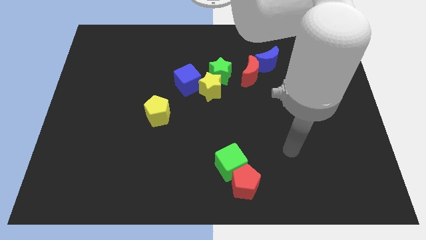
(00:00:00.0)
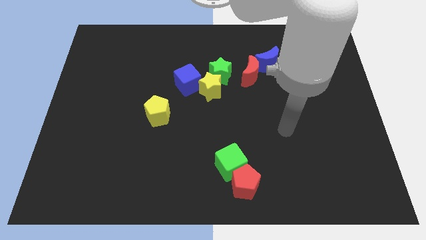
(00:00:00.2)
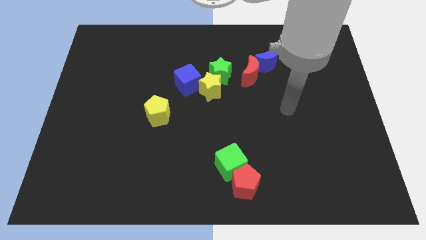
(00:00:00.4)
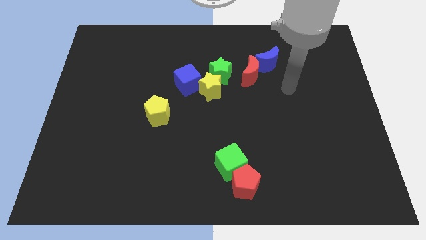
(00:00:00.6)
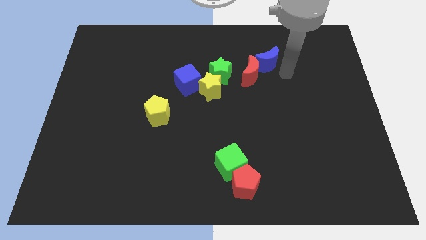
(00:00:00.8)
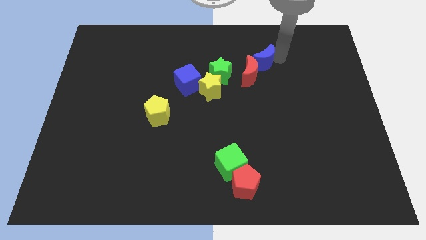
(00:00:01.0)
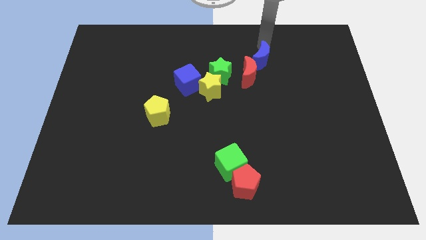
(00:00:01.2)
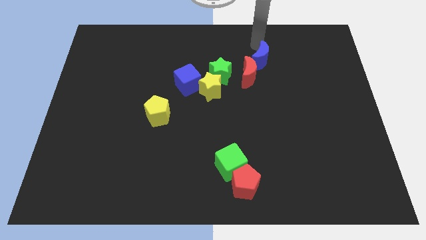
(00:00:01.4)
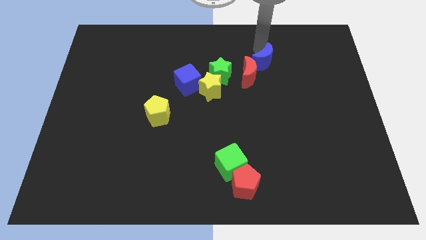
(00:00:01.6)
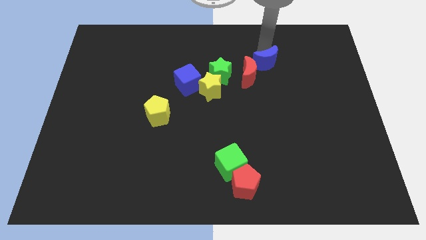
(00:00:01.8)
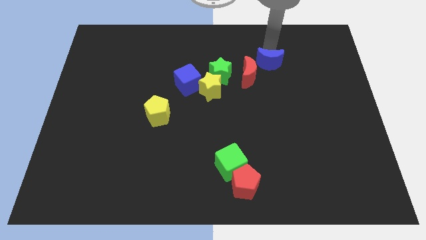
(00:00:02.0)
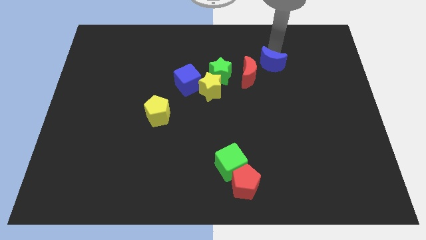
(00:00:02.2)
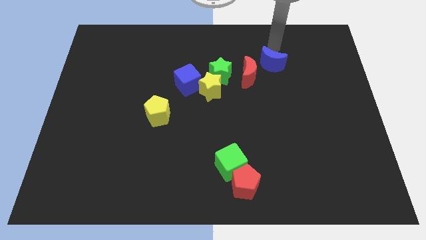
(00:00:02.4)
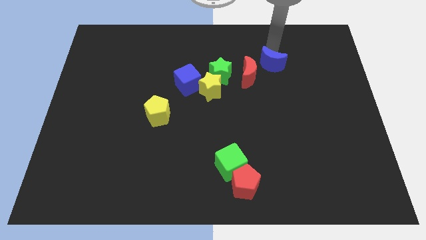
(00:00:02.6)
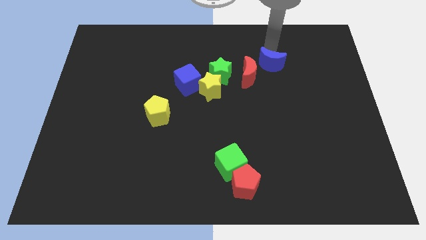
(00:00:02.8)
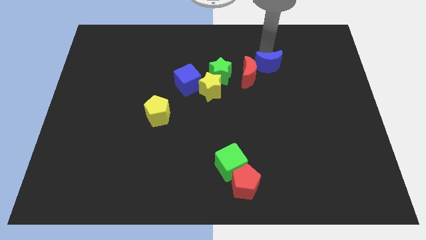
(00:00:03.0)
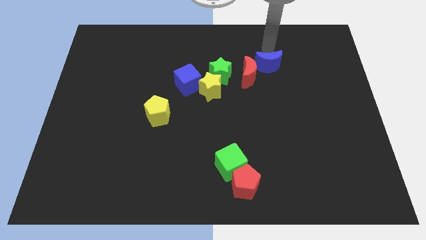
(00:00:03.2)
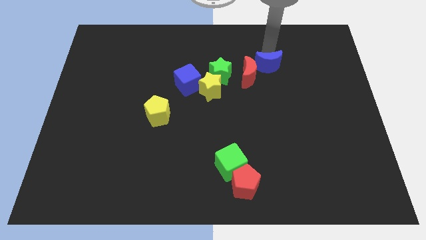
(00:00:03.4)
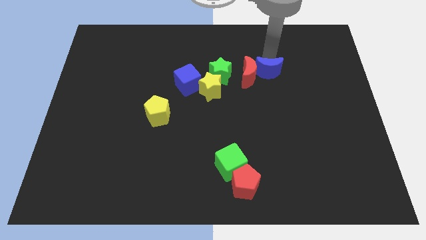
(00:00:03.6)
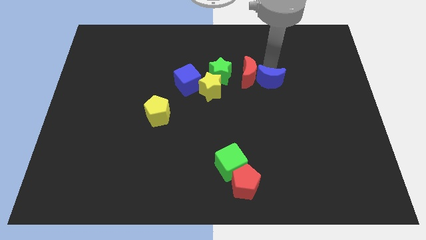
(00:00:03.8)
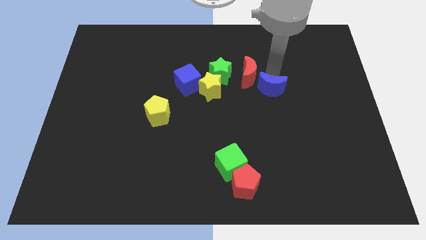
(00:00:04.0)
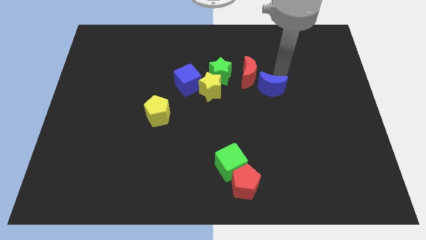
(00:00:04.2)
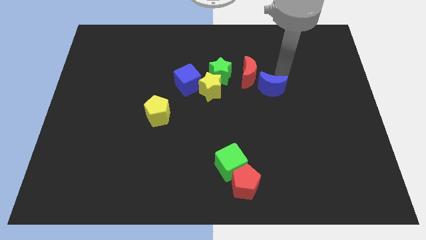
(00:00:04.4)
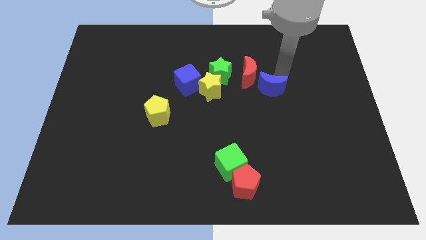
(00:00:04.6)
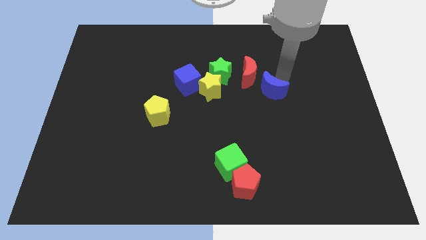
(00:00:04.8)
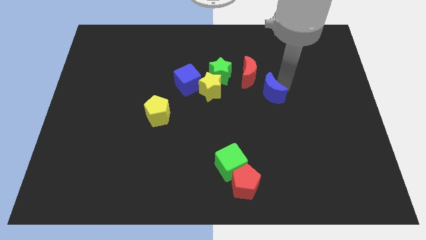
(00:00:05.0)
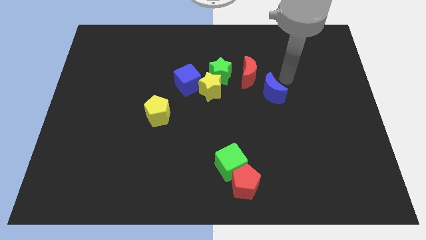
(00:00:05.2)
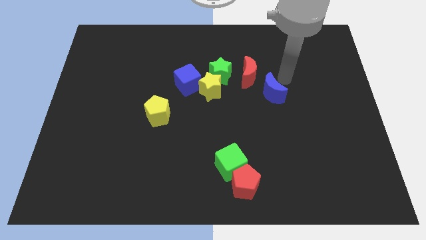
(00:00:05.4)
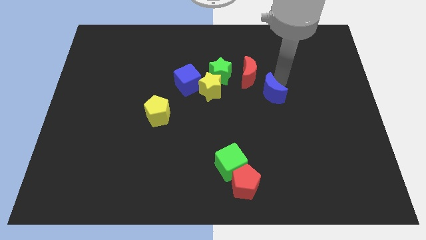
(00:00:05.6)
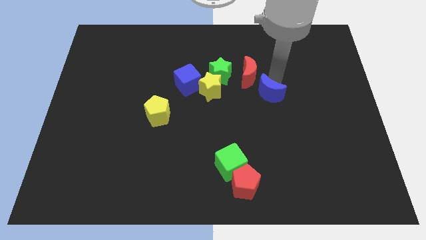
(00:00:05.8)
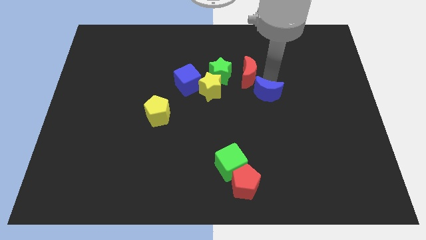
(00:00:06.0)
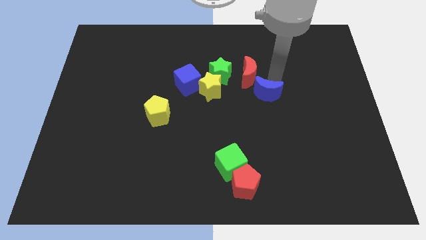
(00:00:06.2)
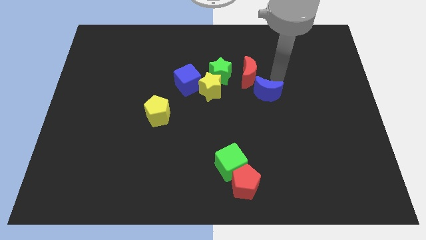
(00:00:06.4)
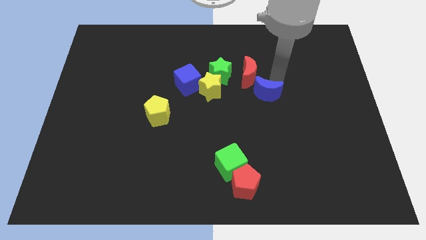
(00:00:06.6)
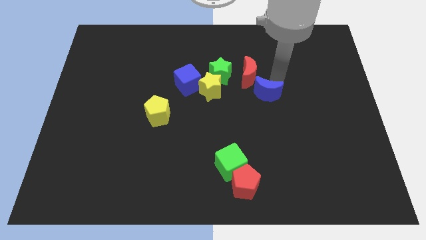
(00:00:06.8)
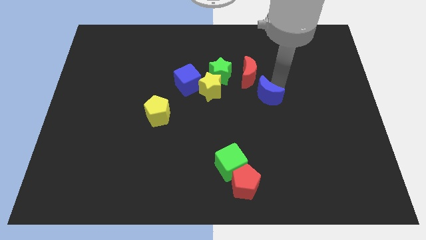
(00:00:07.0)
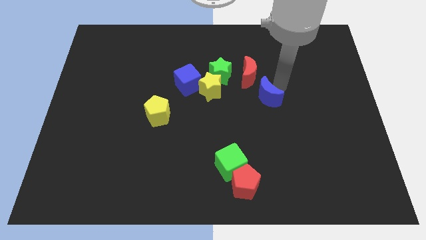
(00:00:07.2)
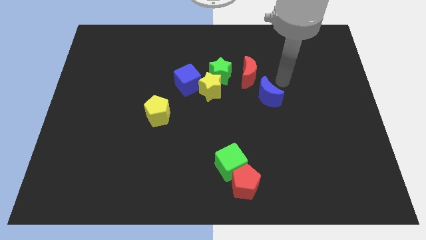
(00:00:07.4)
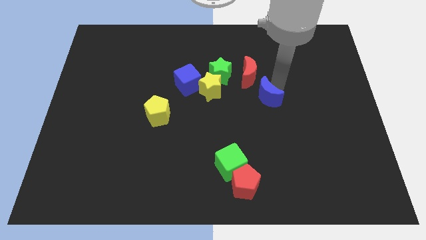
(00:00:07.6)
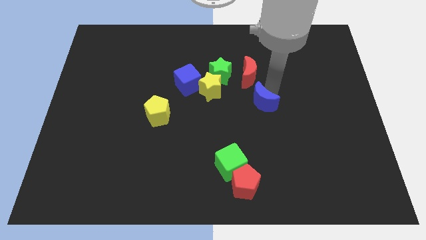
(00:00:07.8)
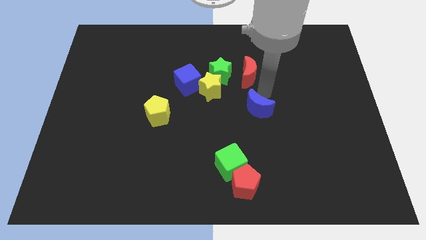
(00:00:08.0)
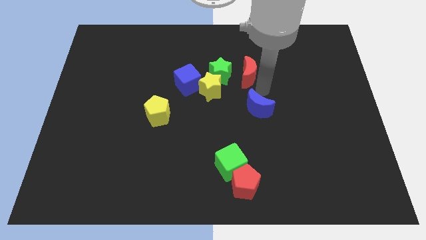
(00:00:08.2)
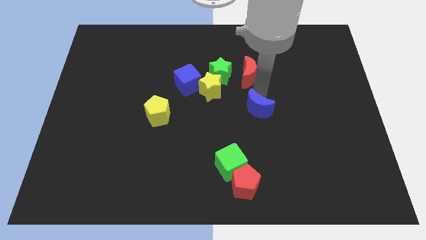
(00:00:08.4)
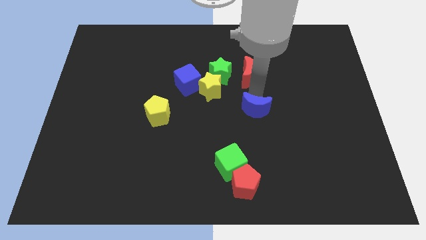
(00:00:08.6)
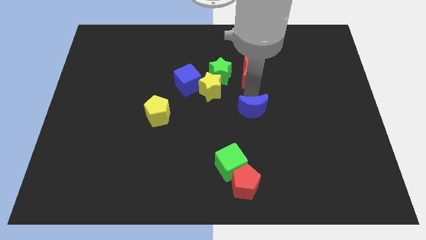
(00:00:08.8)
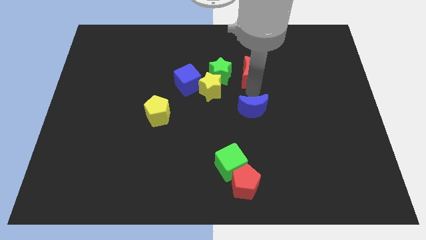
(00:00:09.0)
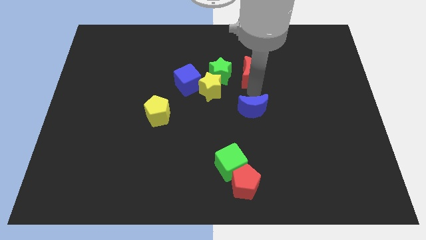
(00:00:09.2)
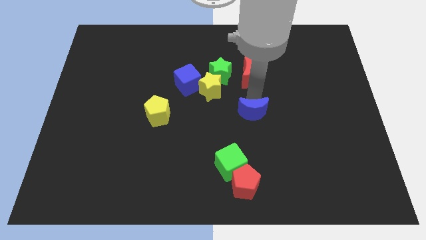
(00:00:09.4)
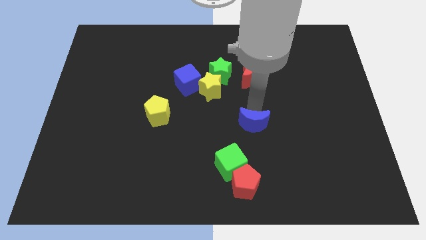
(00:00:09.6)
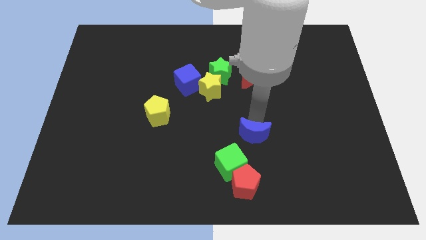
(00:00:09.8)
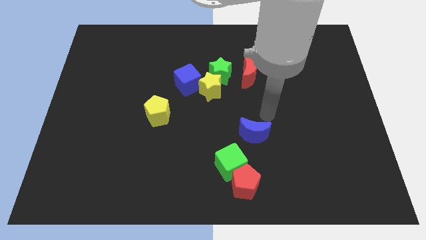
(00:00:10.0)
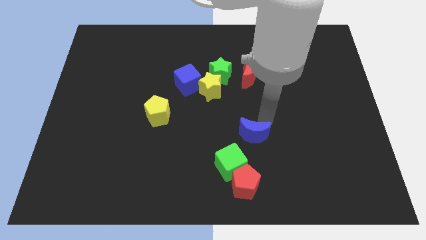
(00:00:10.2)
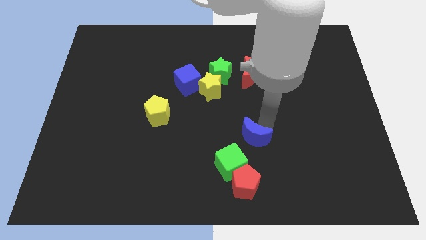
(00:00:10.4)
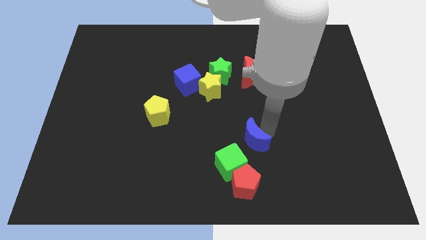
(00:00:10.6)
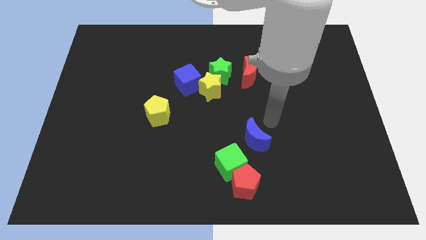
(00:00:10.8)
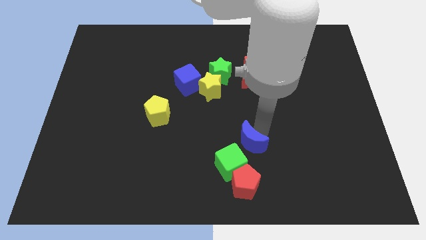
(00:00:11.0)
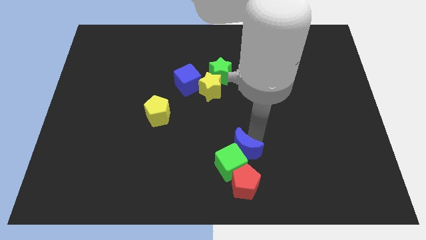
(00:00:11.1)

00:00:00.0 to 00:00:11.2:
push the blue moon towards the green cube

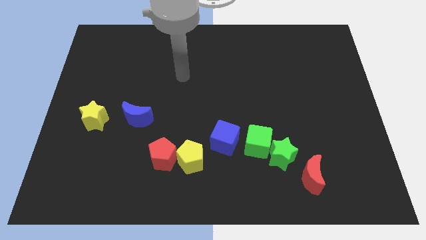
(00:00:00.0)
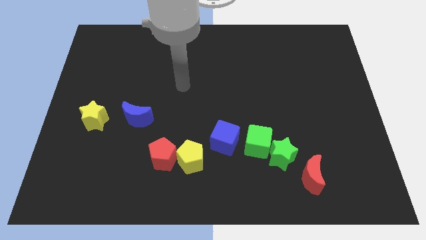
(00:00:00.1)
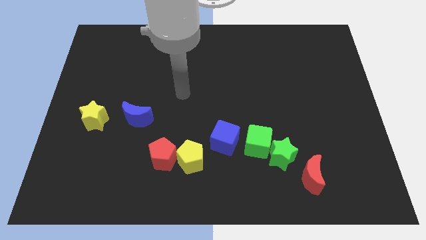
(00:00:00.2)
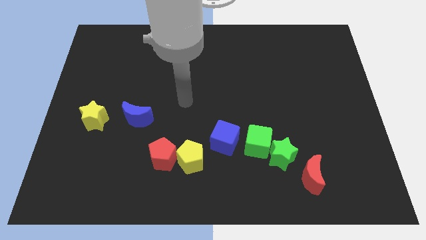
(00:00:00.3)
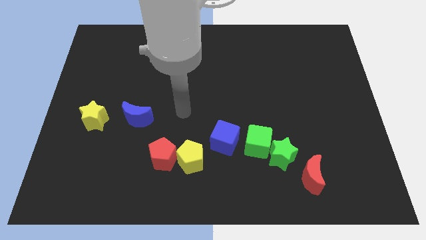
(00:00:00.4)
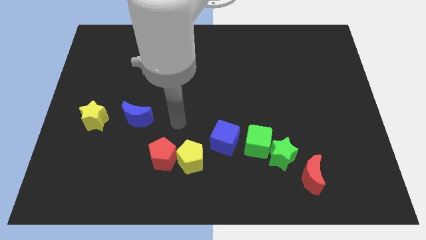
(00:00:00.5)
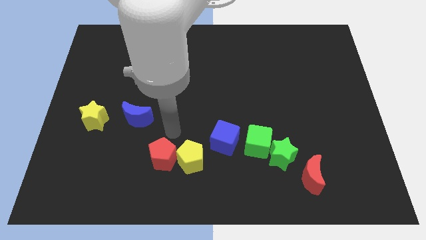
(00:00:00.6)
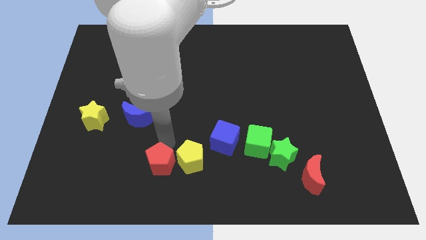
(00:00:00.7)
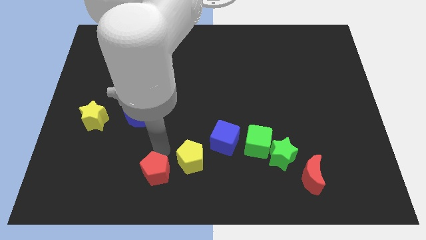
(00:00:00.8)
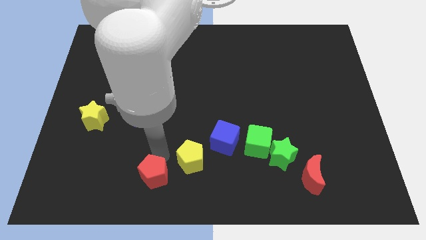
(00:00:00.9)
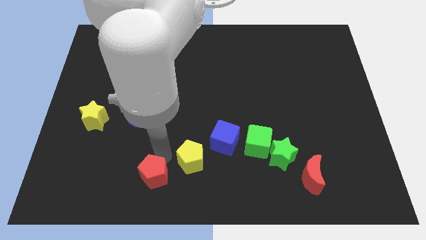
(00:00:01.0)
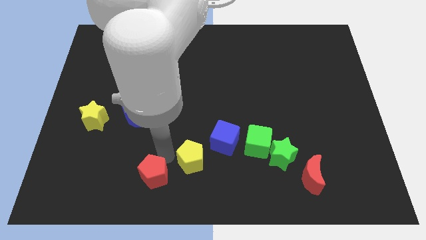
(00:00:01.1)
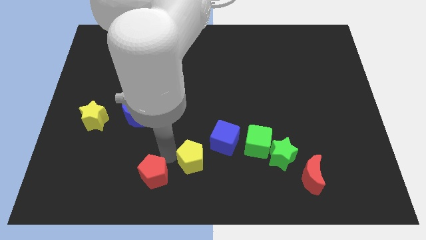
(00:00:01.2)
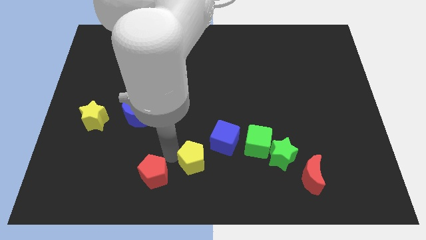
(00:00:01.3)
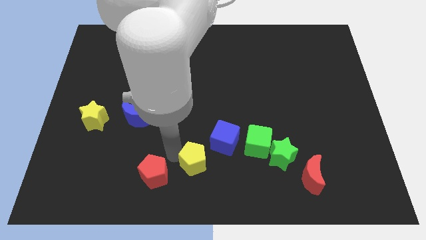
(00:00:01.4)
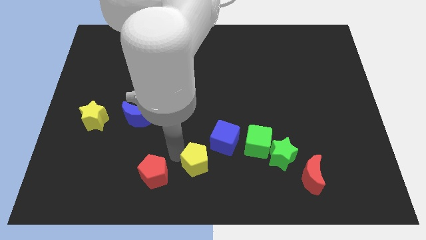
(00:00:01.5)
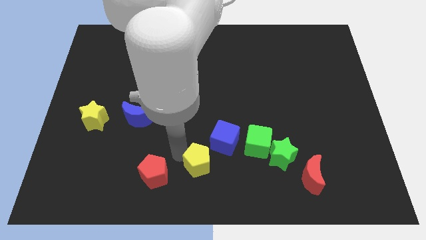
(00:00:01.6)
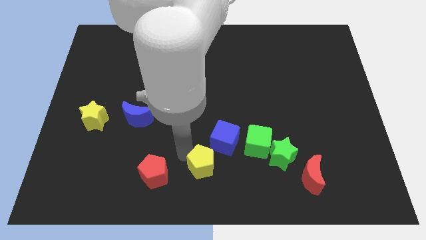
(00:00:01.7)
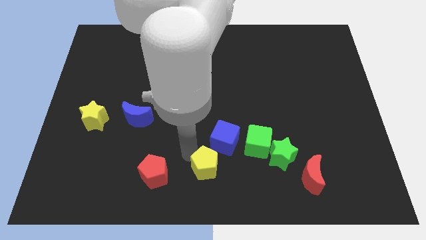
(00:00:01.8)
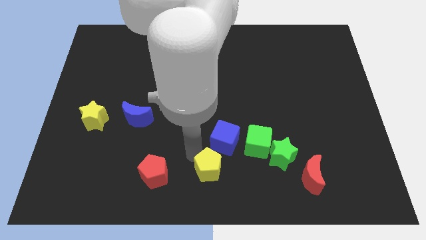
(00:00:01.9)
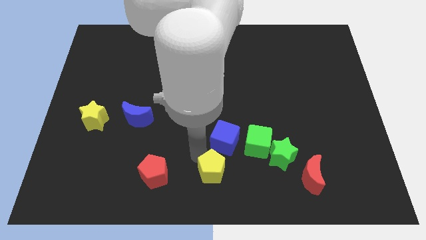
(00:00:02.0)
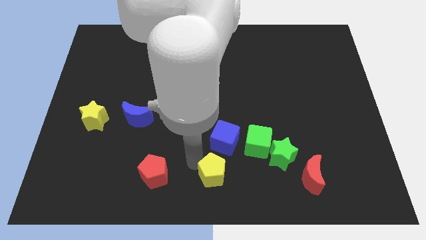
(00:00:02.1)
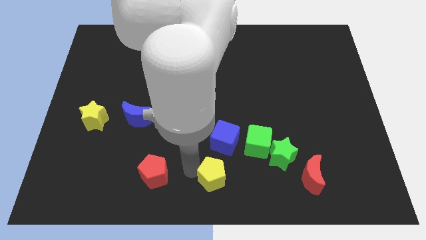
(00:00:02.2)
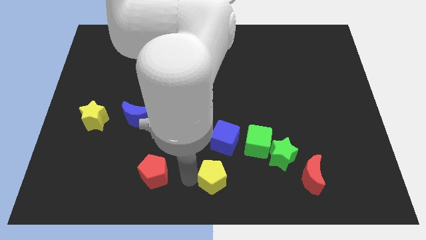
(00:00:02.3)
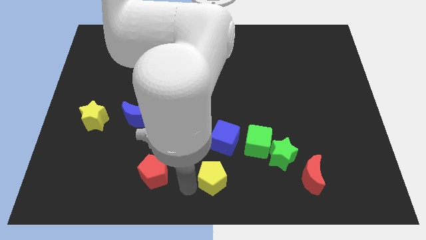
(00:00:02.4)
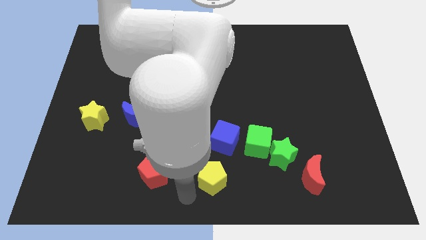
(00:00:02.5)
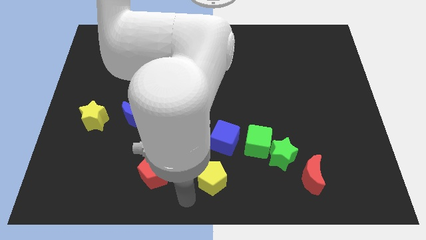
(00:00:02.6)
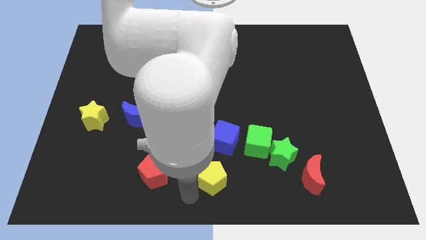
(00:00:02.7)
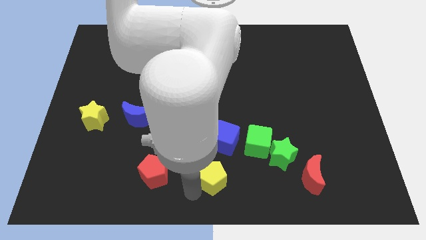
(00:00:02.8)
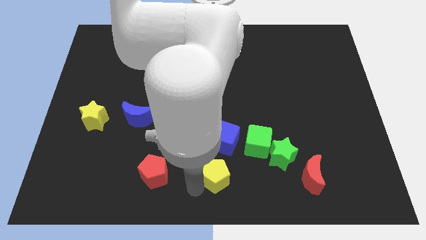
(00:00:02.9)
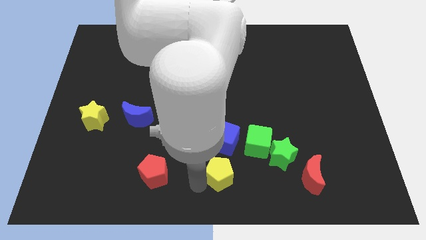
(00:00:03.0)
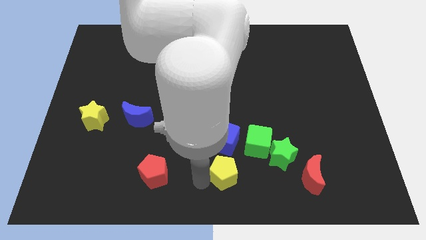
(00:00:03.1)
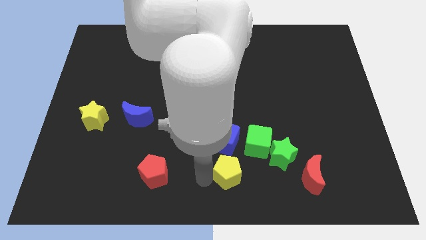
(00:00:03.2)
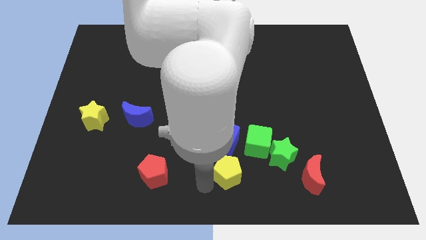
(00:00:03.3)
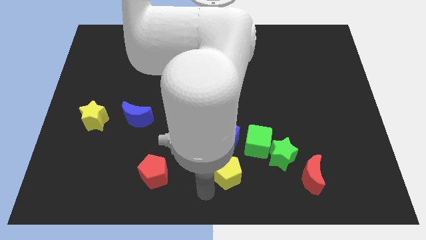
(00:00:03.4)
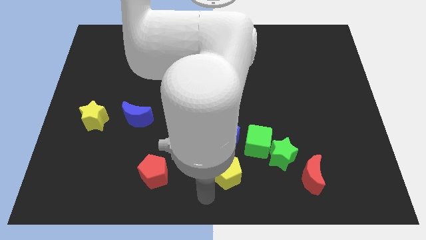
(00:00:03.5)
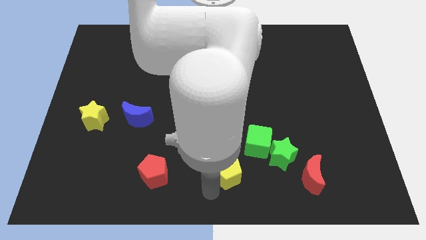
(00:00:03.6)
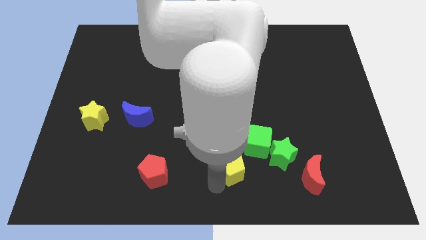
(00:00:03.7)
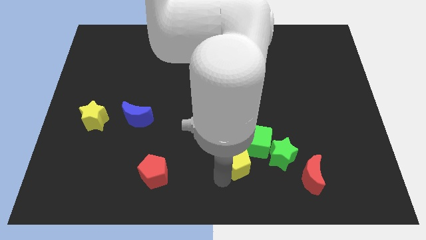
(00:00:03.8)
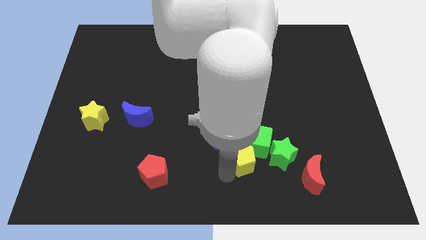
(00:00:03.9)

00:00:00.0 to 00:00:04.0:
slide the yellow pentagon close to the green cube
